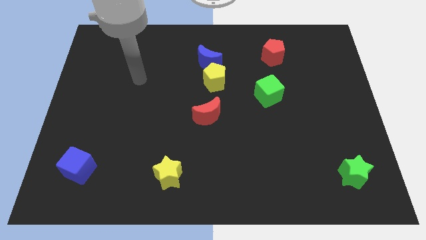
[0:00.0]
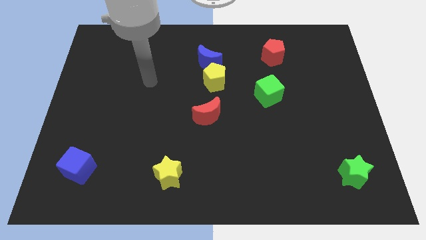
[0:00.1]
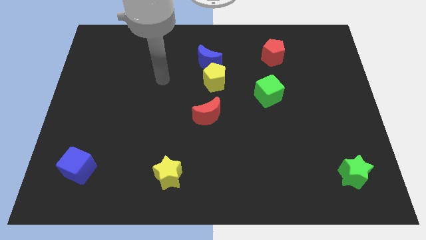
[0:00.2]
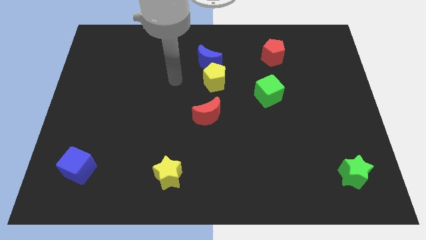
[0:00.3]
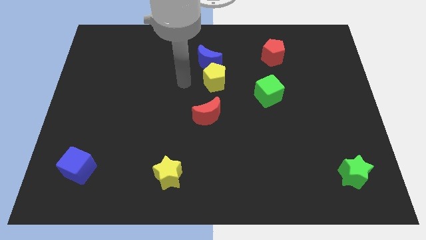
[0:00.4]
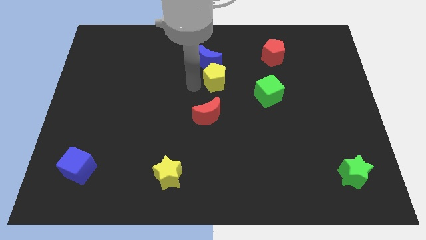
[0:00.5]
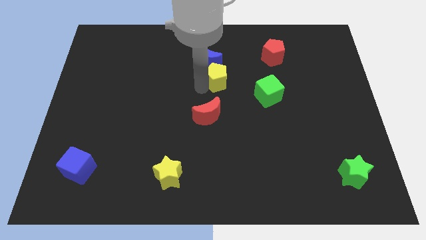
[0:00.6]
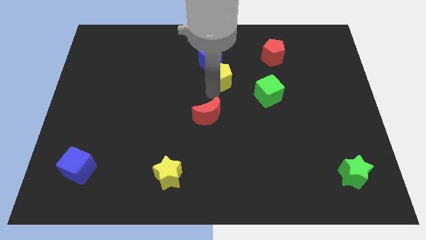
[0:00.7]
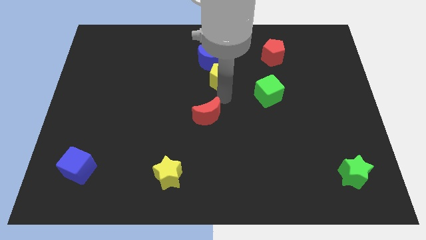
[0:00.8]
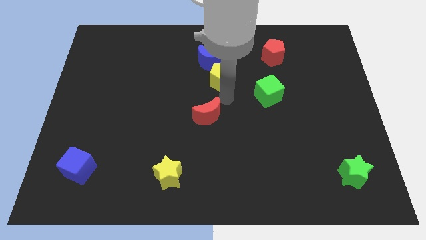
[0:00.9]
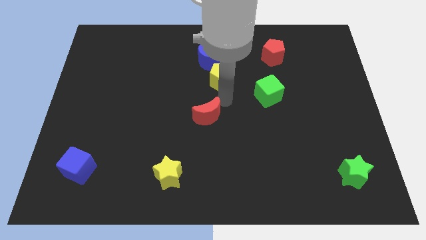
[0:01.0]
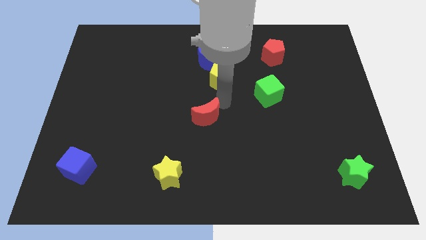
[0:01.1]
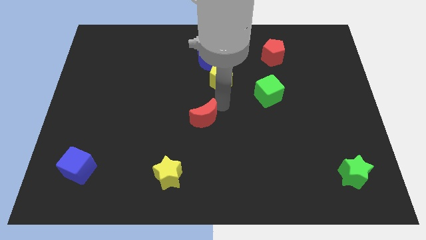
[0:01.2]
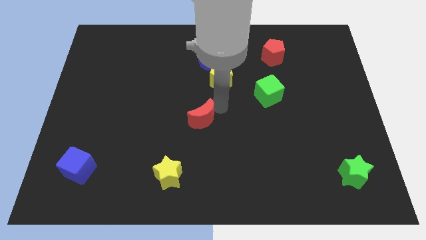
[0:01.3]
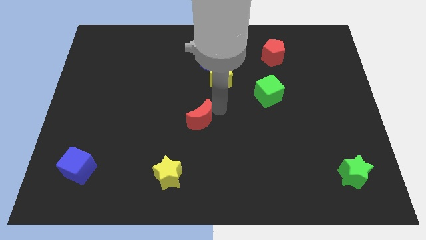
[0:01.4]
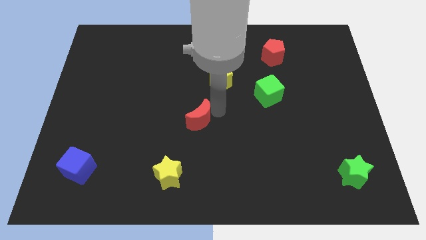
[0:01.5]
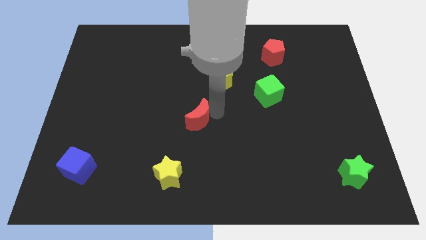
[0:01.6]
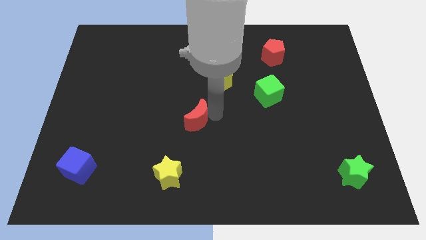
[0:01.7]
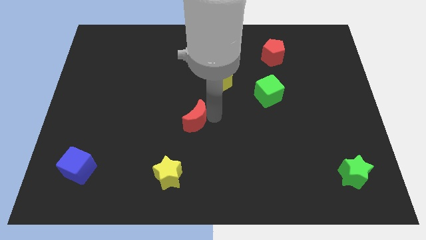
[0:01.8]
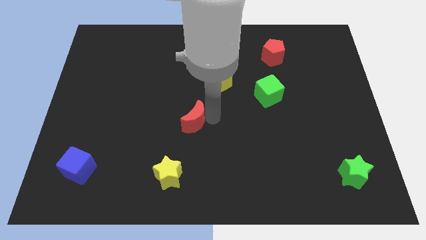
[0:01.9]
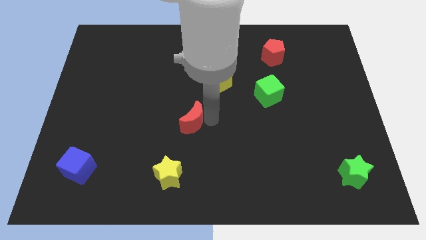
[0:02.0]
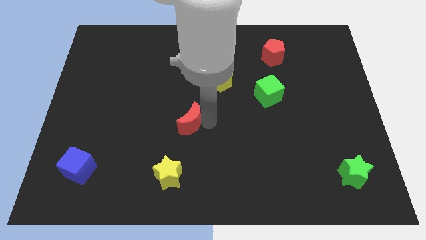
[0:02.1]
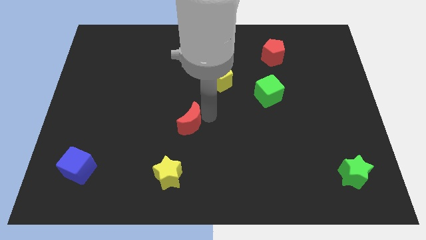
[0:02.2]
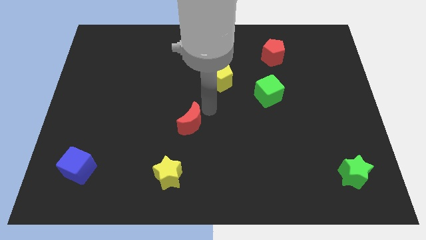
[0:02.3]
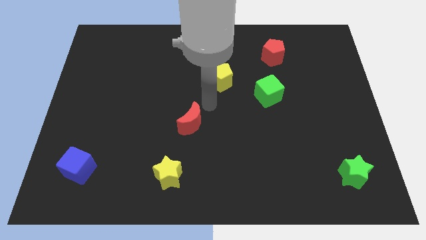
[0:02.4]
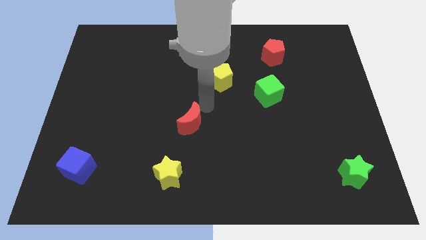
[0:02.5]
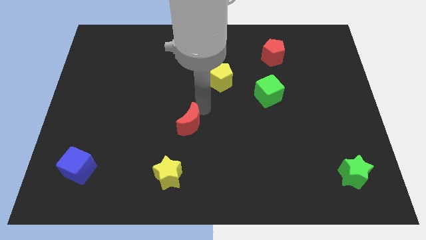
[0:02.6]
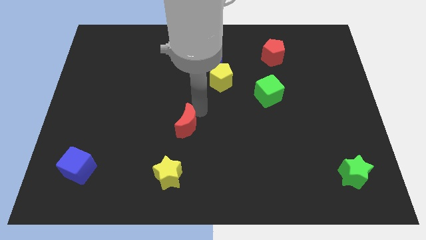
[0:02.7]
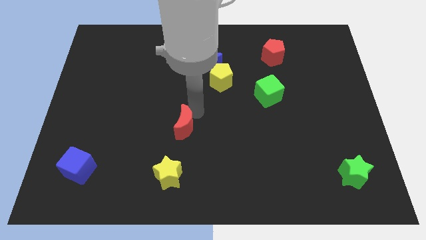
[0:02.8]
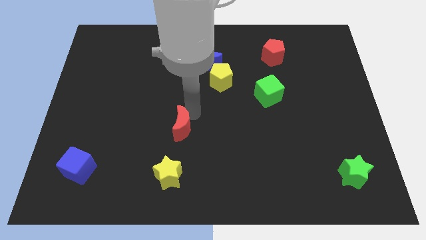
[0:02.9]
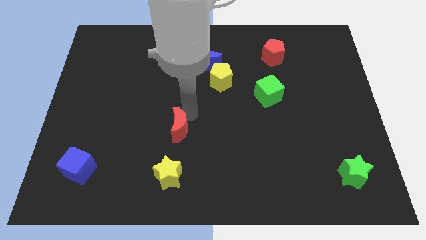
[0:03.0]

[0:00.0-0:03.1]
slightly move the red moon down and then to the left

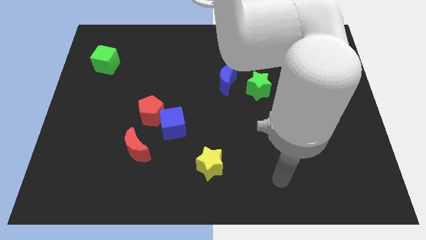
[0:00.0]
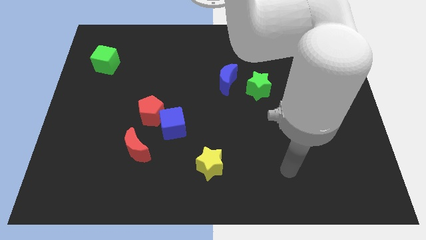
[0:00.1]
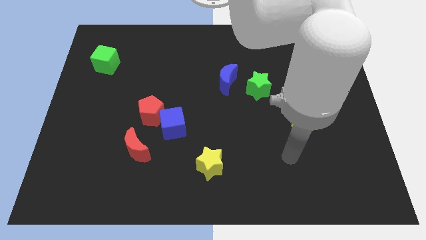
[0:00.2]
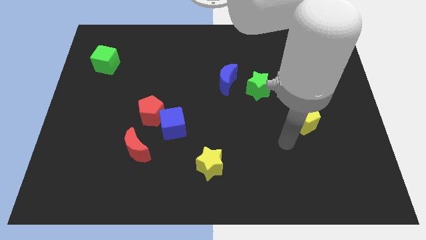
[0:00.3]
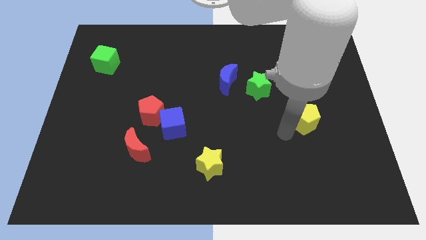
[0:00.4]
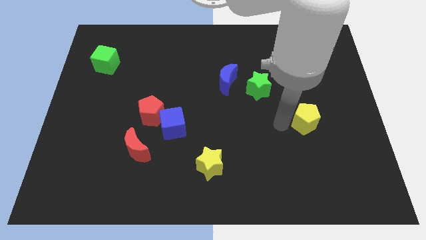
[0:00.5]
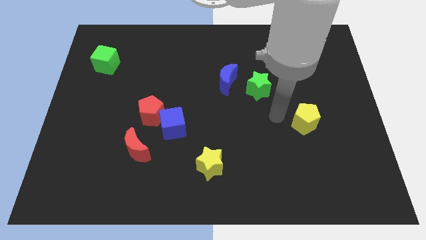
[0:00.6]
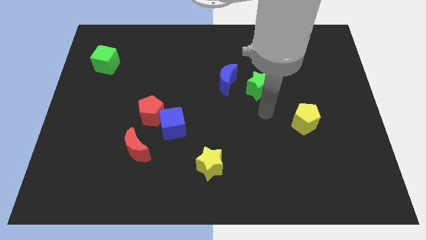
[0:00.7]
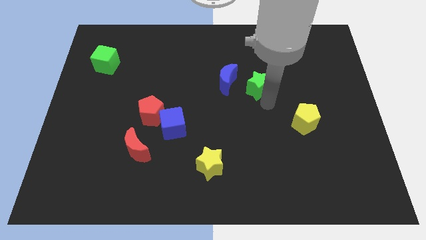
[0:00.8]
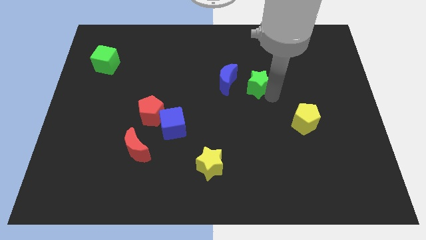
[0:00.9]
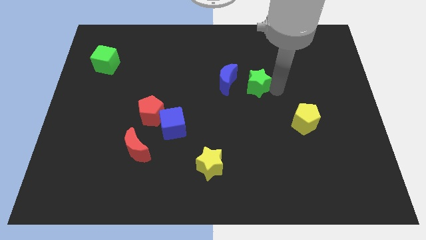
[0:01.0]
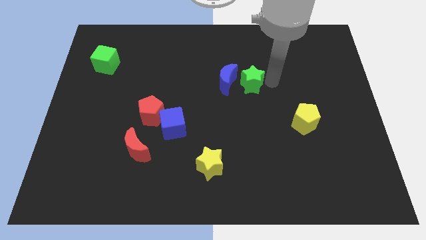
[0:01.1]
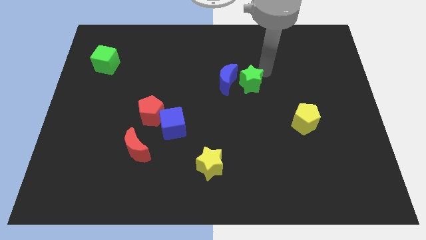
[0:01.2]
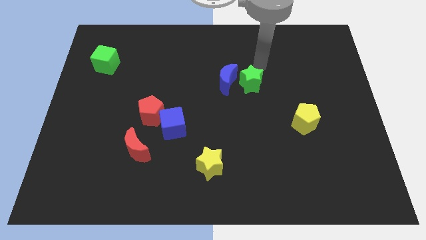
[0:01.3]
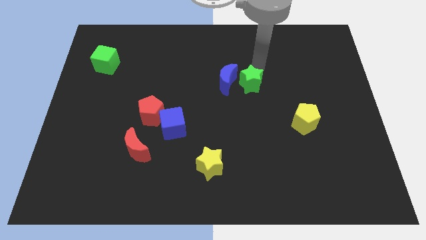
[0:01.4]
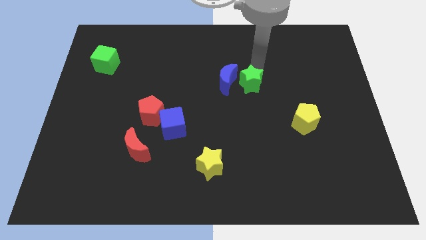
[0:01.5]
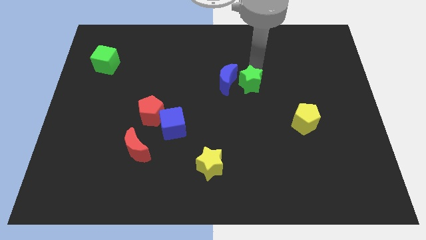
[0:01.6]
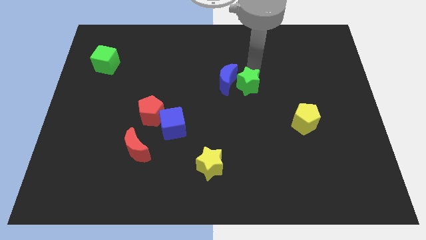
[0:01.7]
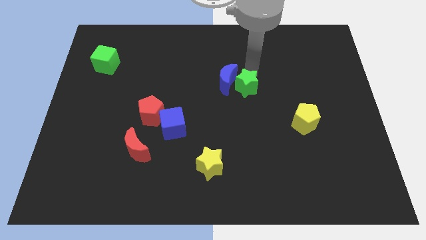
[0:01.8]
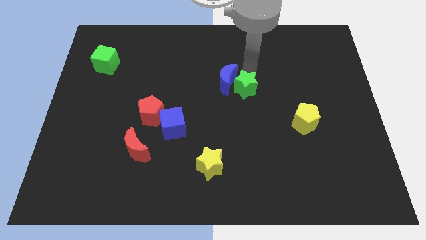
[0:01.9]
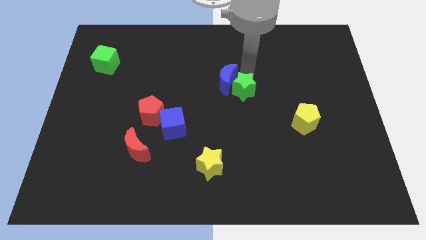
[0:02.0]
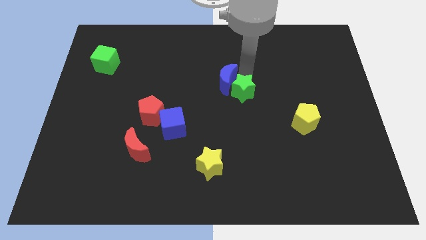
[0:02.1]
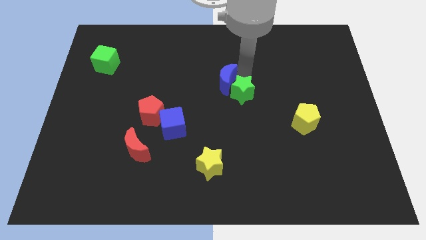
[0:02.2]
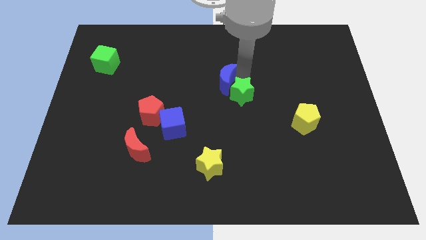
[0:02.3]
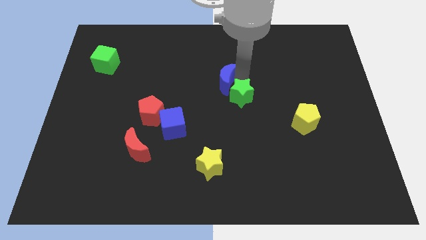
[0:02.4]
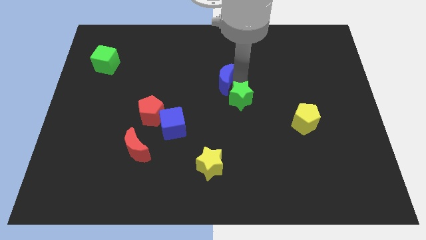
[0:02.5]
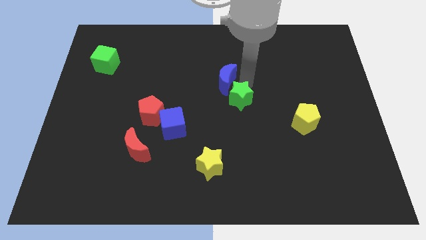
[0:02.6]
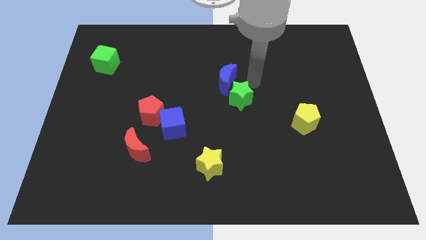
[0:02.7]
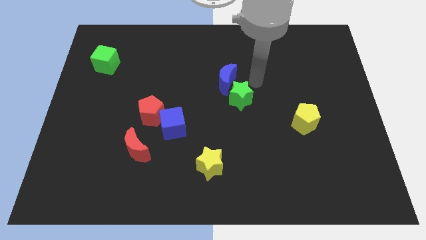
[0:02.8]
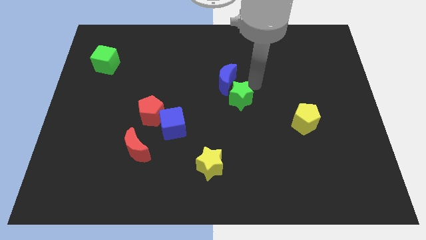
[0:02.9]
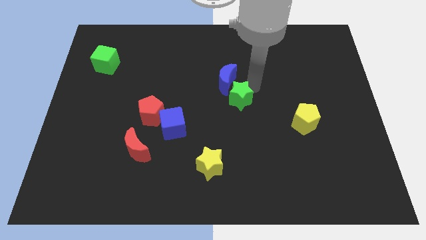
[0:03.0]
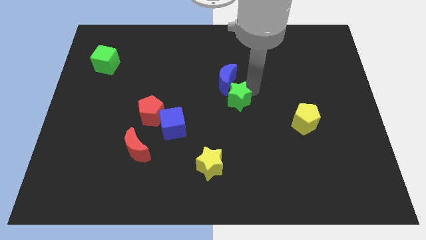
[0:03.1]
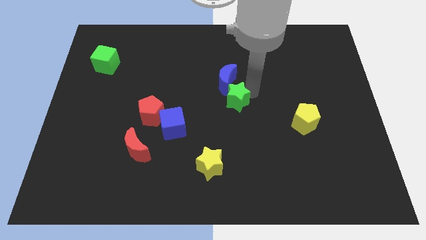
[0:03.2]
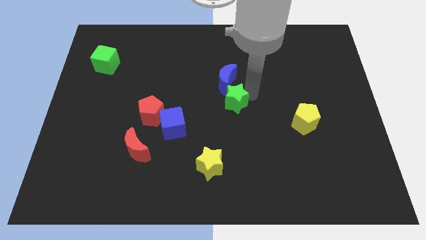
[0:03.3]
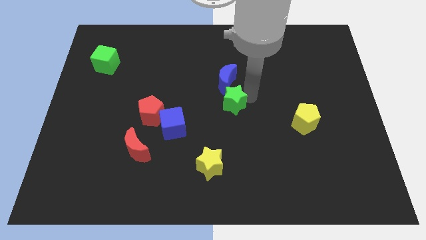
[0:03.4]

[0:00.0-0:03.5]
slightly move the green star diagonally down and to the left

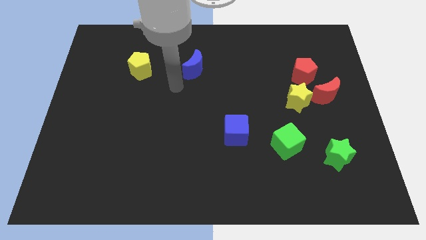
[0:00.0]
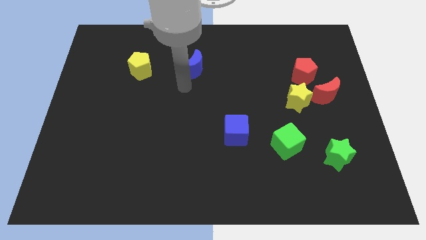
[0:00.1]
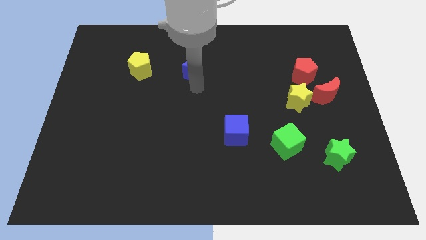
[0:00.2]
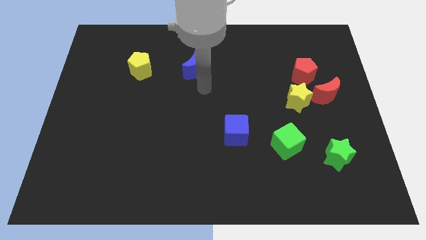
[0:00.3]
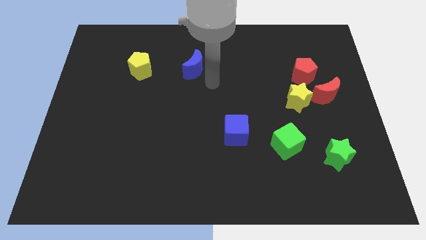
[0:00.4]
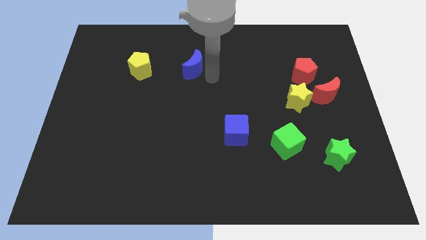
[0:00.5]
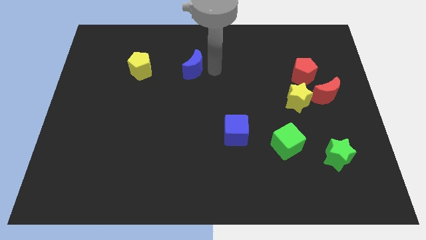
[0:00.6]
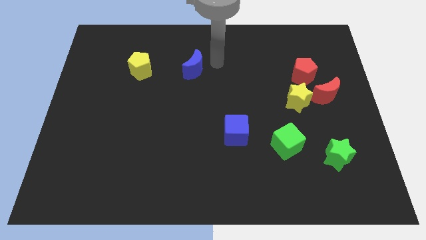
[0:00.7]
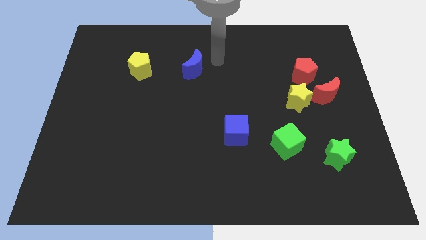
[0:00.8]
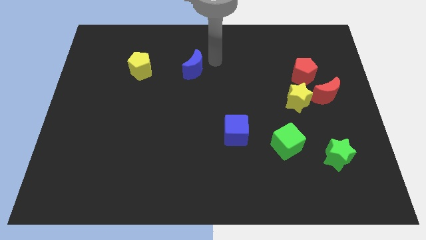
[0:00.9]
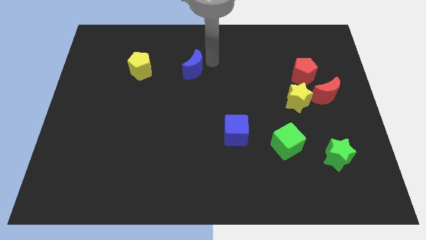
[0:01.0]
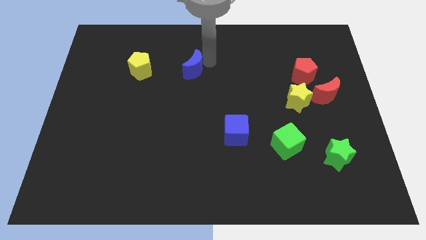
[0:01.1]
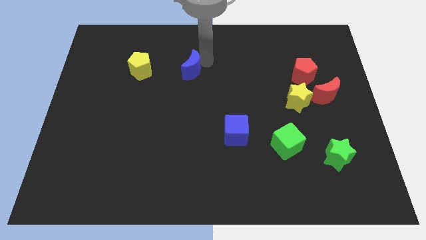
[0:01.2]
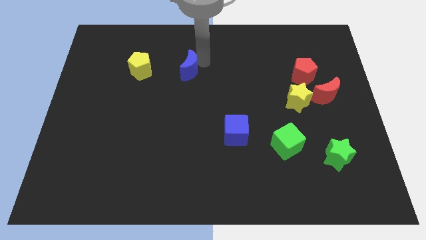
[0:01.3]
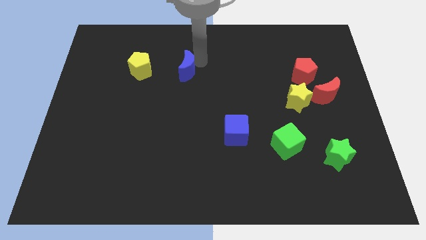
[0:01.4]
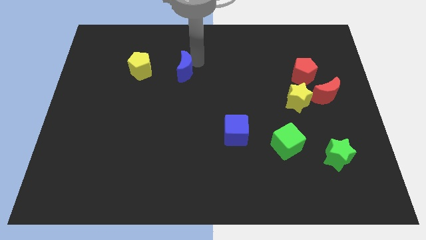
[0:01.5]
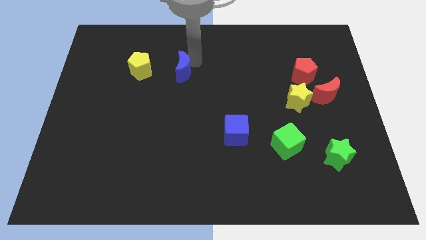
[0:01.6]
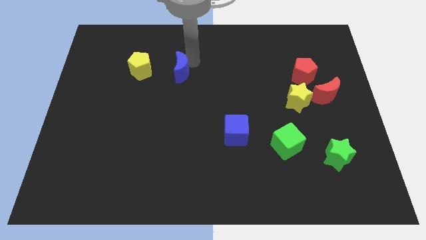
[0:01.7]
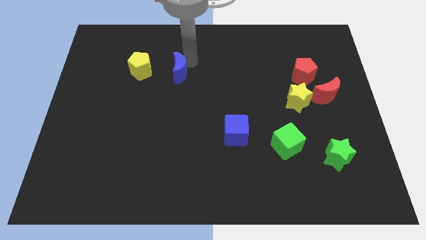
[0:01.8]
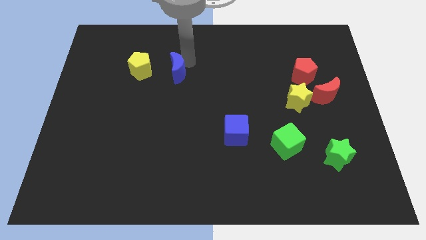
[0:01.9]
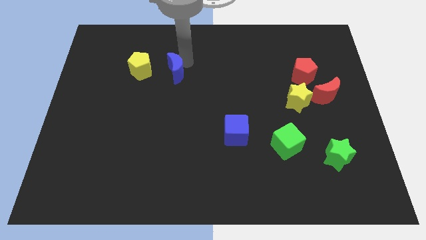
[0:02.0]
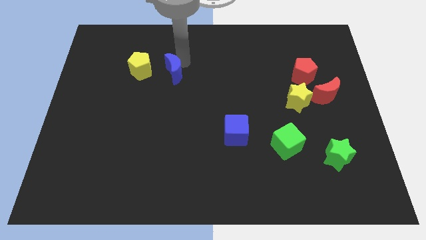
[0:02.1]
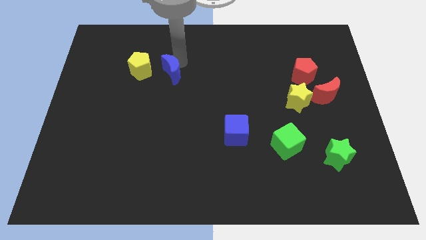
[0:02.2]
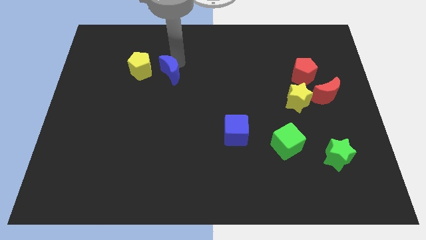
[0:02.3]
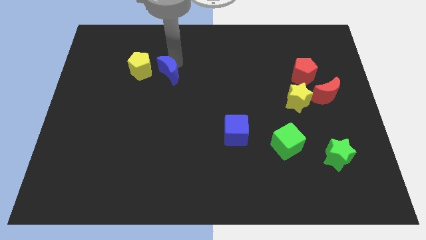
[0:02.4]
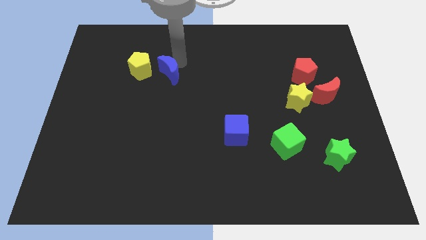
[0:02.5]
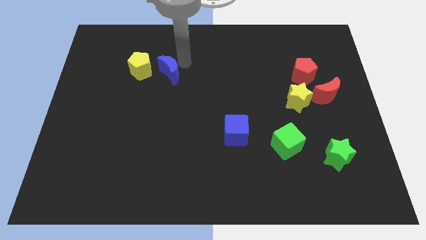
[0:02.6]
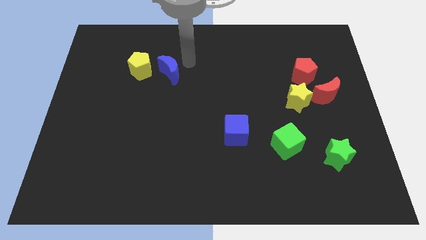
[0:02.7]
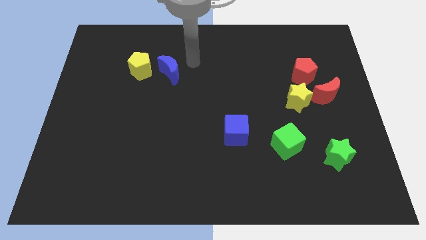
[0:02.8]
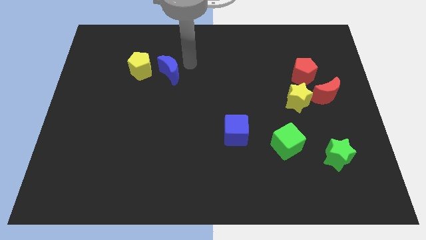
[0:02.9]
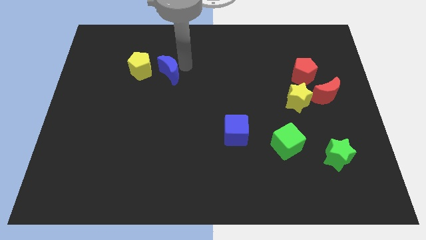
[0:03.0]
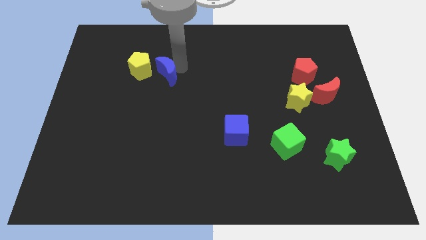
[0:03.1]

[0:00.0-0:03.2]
push the blue moon somewhat left
